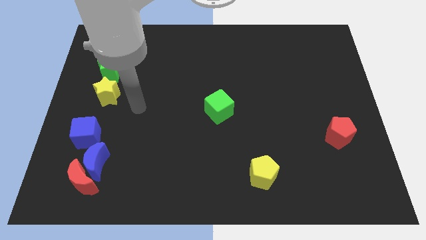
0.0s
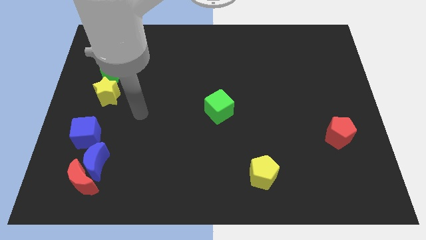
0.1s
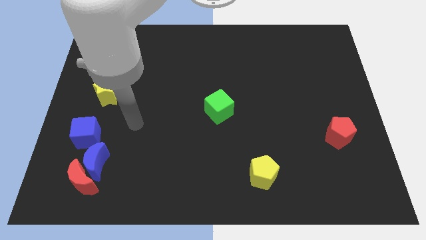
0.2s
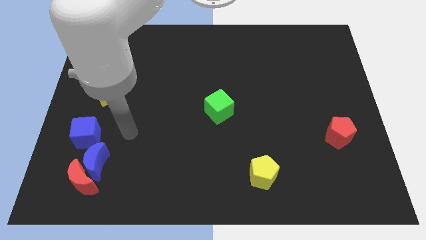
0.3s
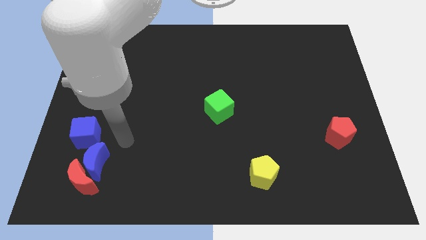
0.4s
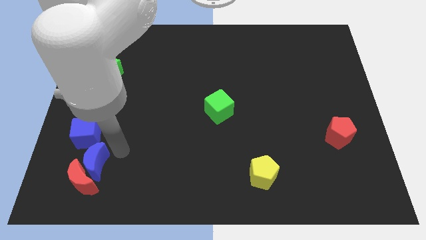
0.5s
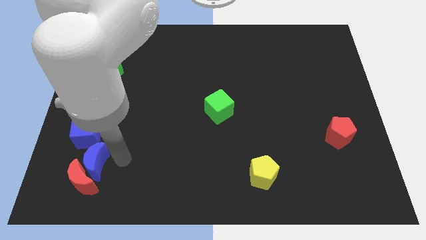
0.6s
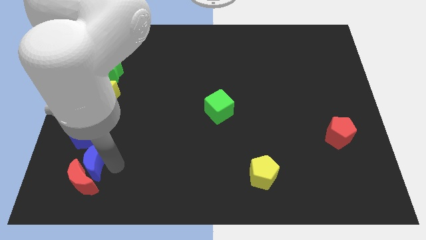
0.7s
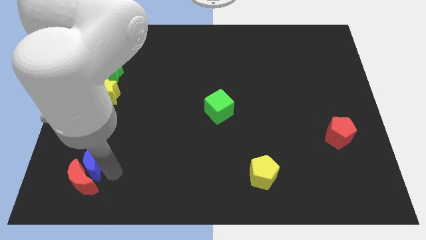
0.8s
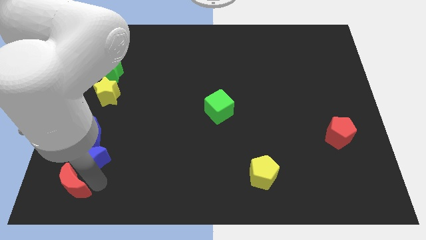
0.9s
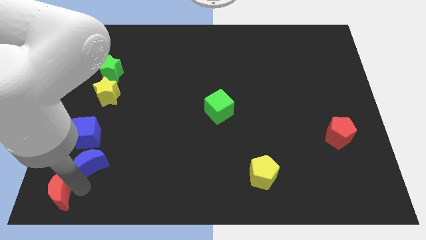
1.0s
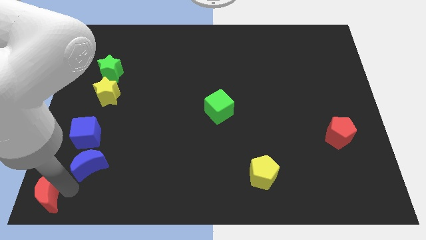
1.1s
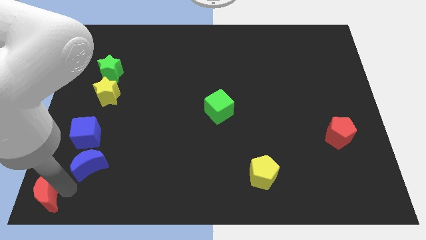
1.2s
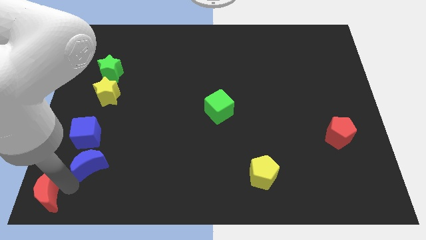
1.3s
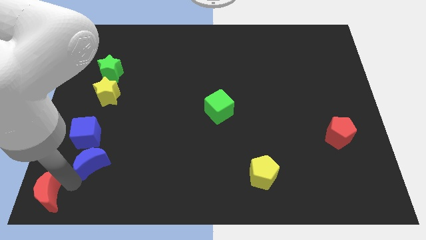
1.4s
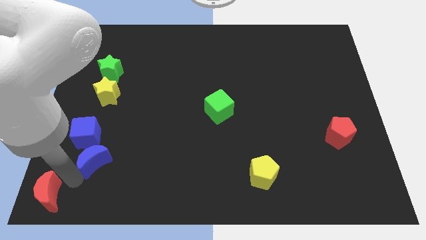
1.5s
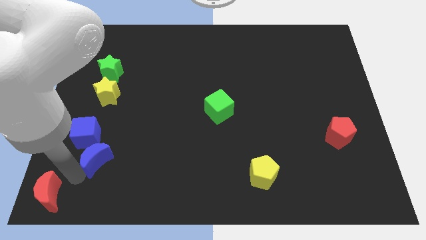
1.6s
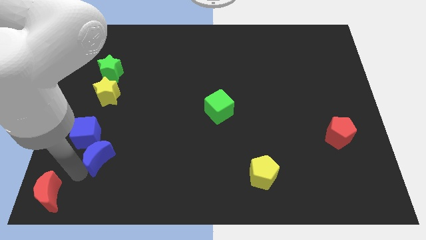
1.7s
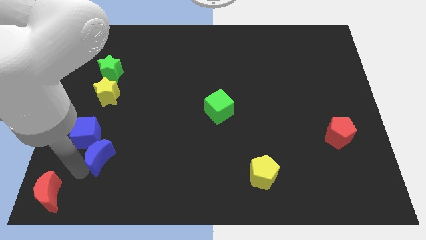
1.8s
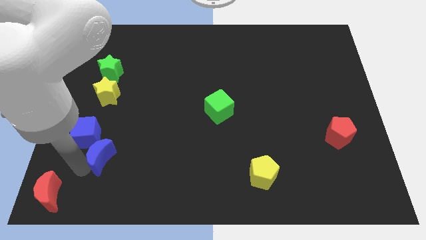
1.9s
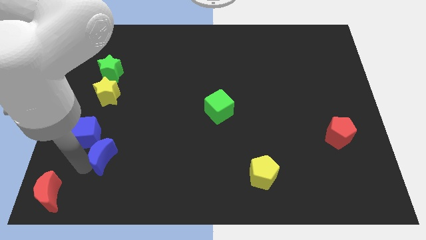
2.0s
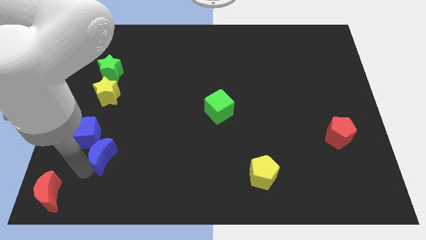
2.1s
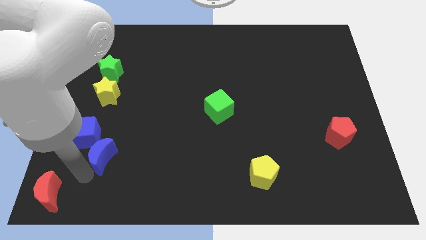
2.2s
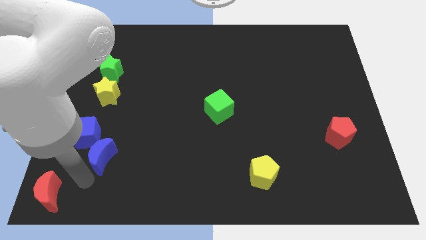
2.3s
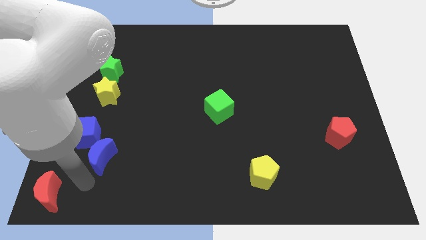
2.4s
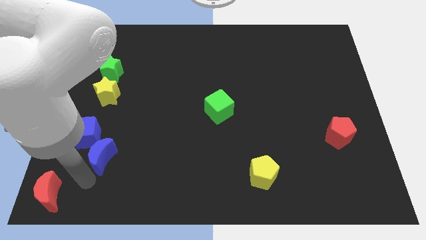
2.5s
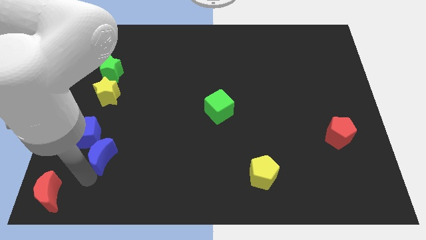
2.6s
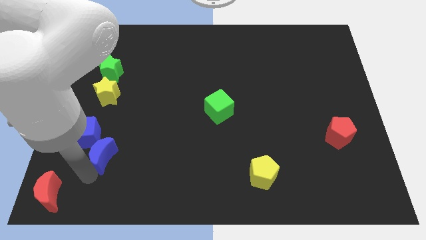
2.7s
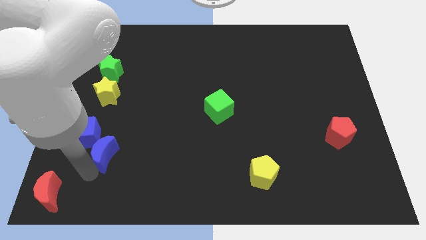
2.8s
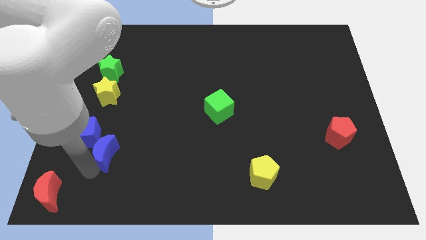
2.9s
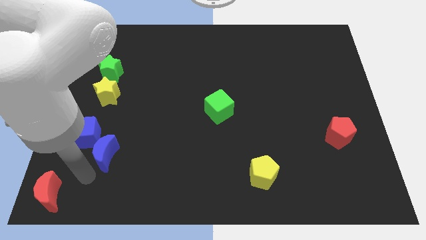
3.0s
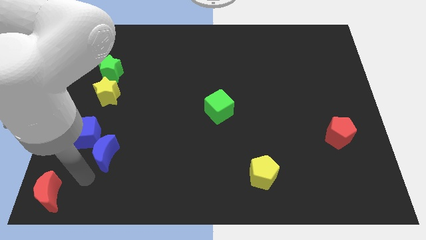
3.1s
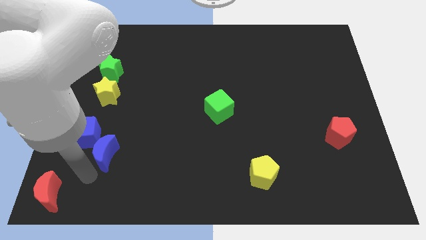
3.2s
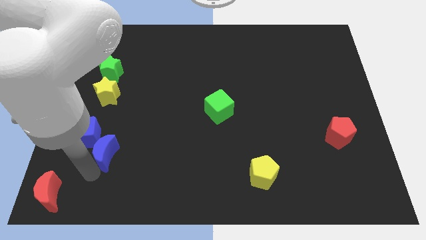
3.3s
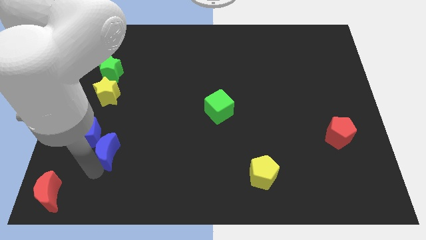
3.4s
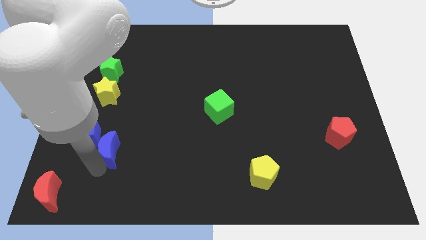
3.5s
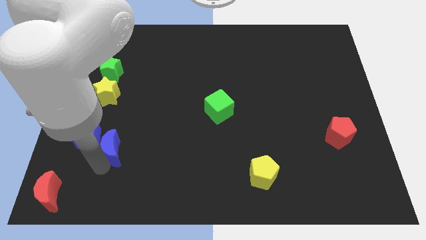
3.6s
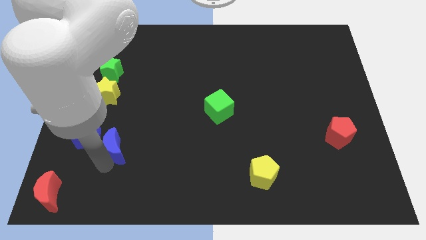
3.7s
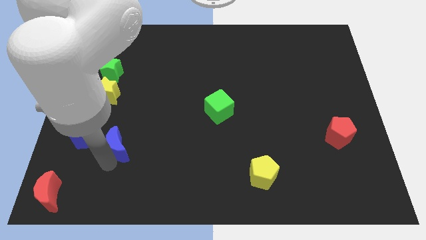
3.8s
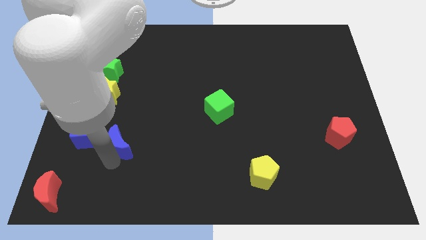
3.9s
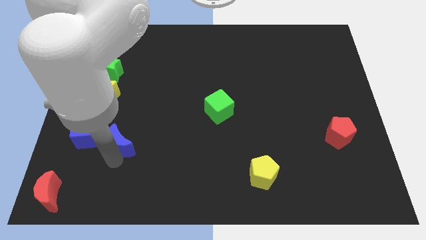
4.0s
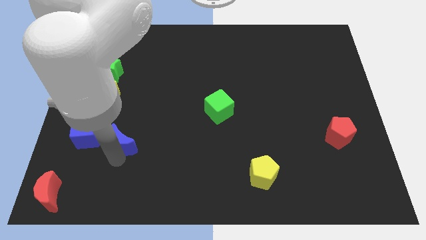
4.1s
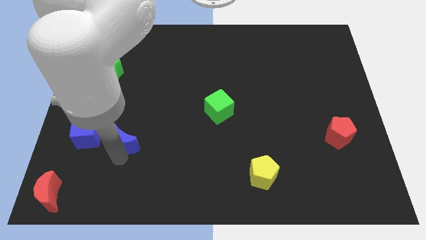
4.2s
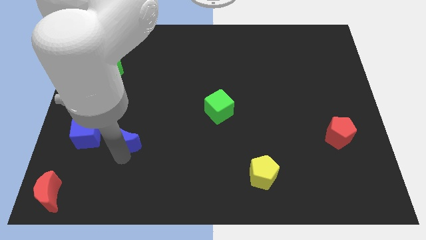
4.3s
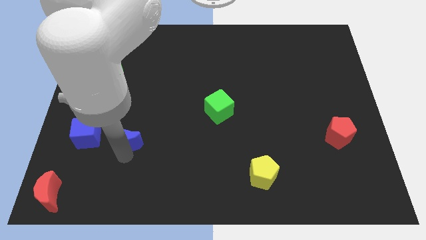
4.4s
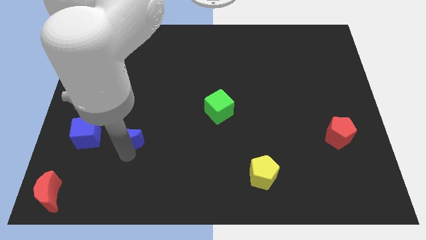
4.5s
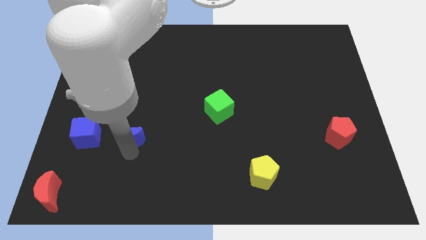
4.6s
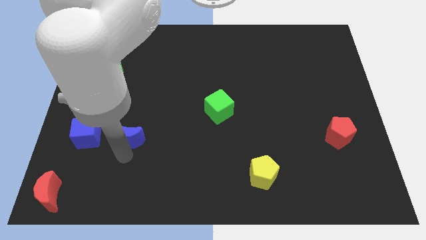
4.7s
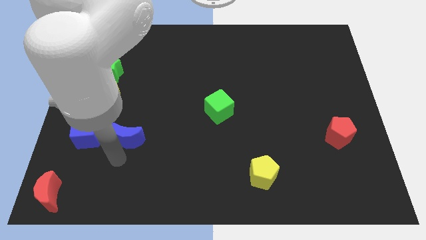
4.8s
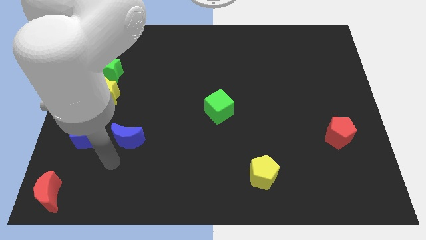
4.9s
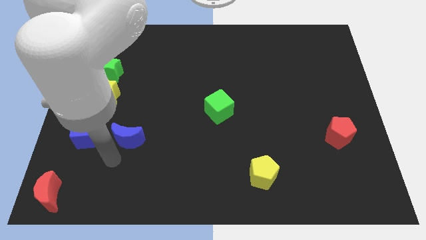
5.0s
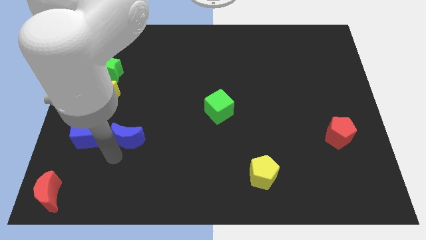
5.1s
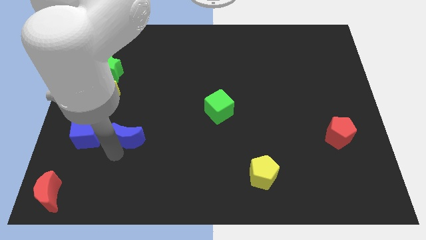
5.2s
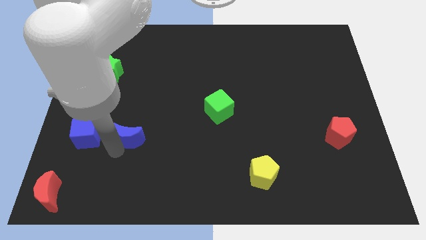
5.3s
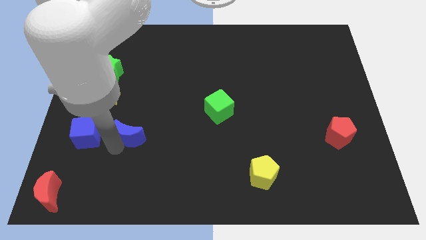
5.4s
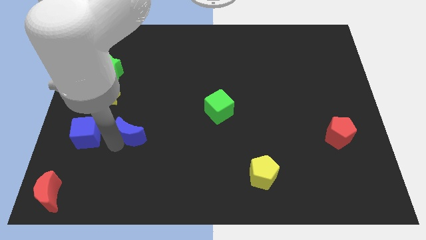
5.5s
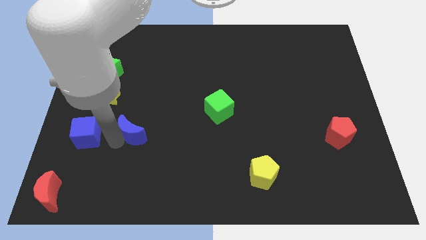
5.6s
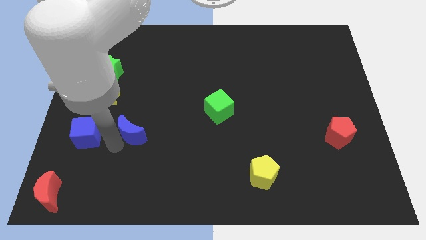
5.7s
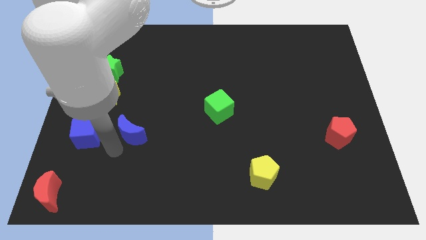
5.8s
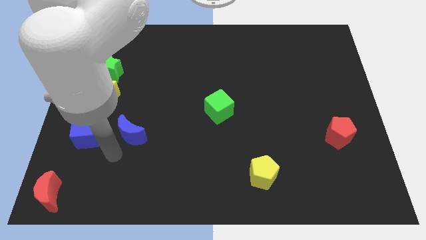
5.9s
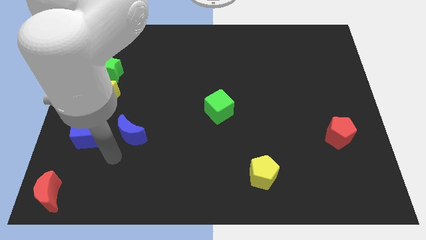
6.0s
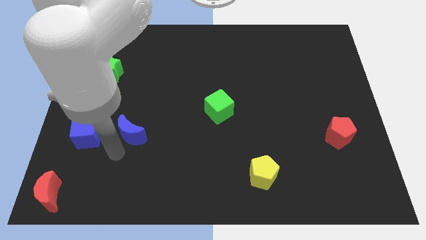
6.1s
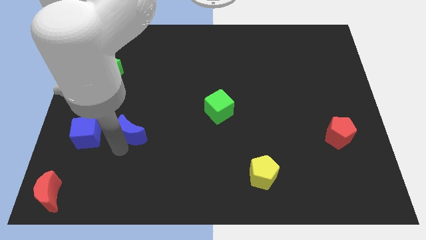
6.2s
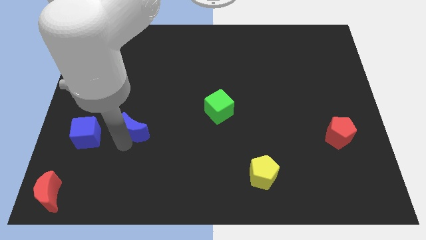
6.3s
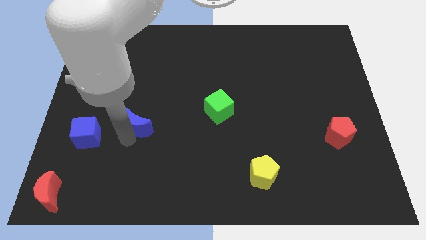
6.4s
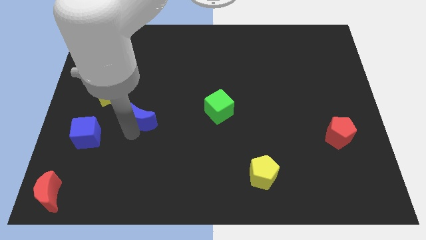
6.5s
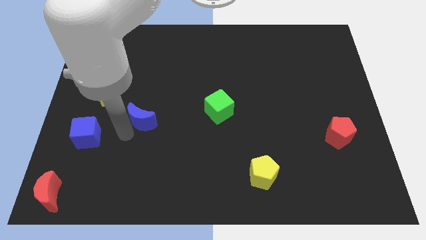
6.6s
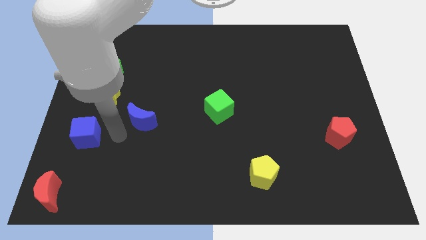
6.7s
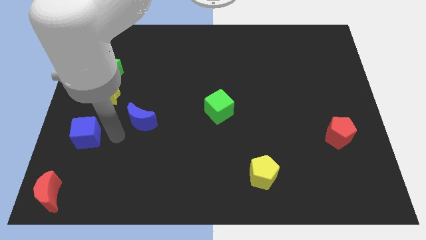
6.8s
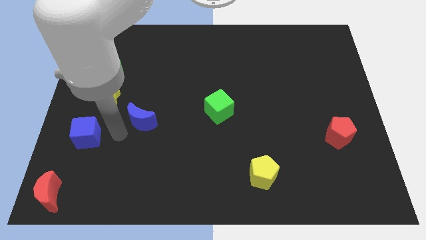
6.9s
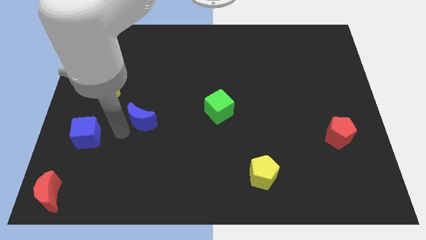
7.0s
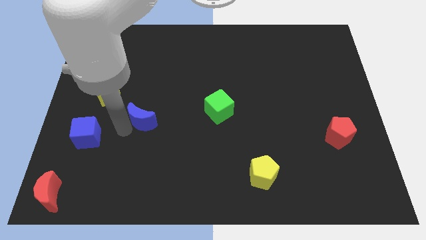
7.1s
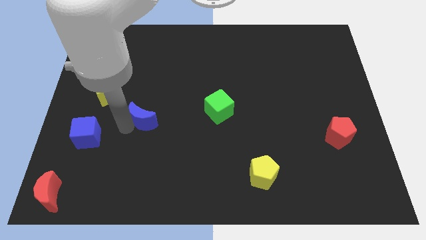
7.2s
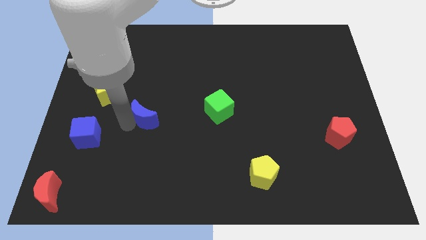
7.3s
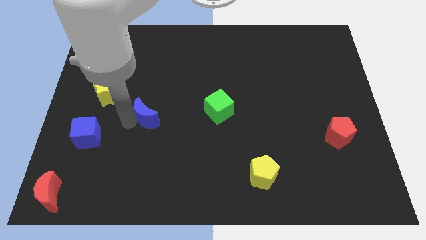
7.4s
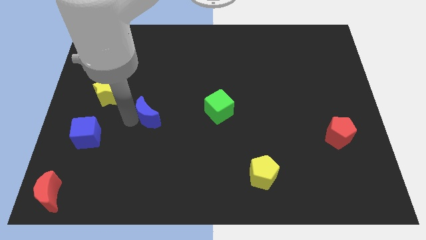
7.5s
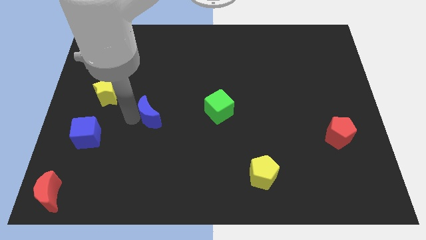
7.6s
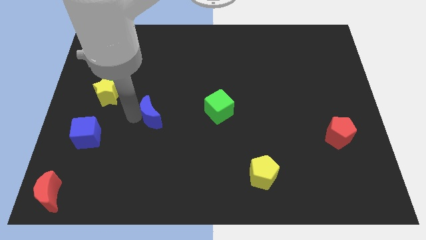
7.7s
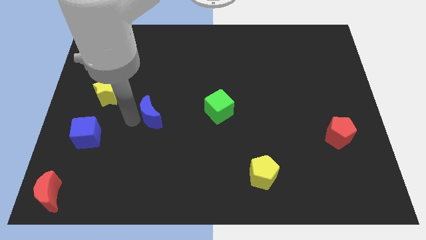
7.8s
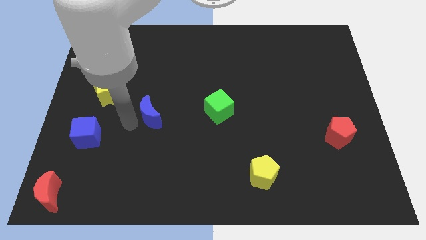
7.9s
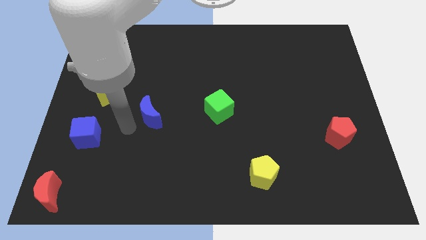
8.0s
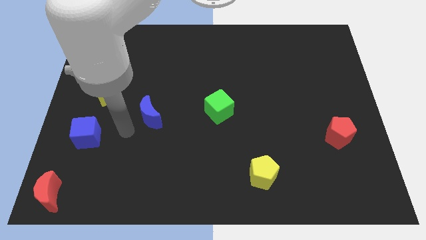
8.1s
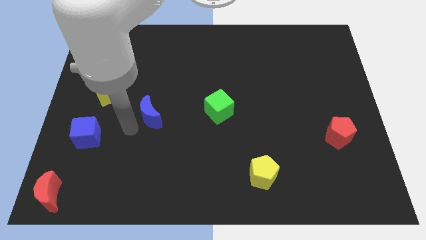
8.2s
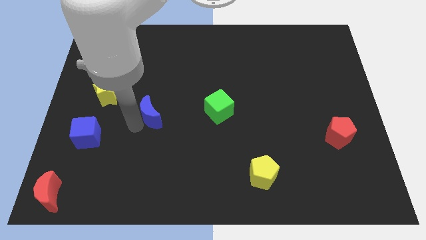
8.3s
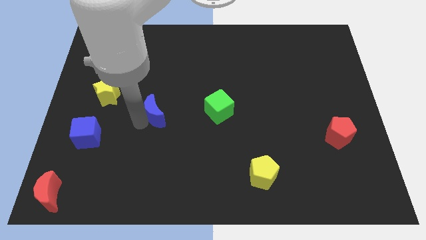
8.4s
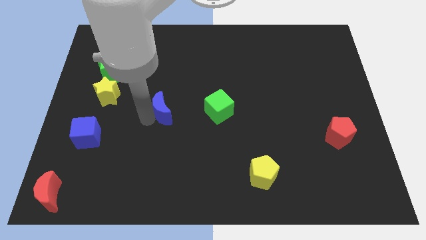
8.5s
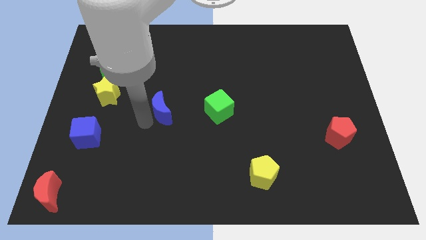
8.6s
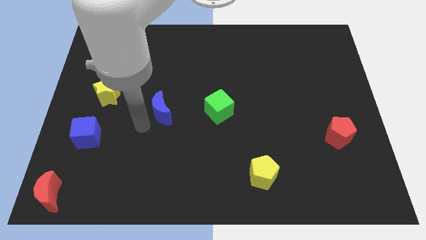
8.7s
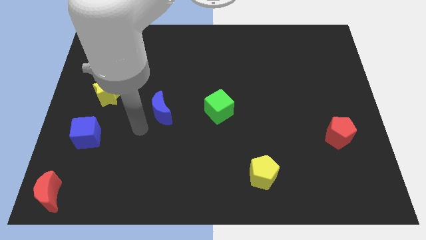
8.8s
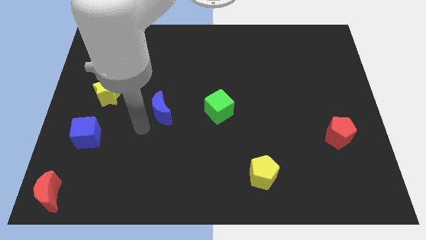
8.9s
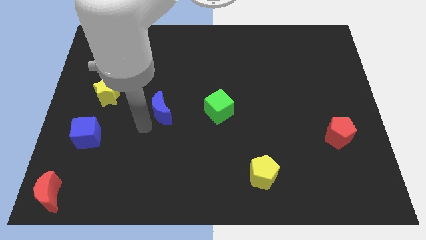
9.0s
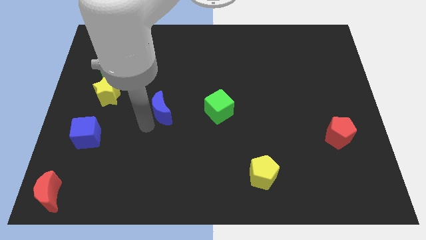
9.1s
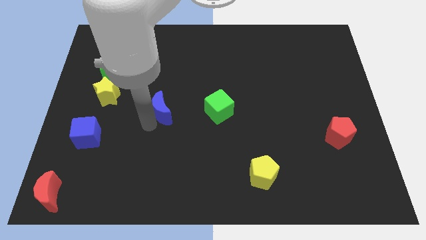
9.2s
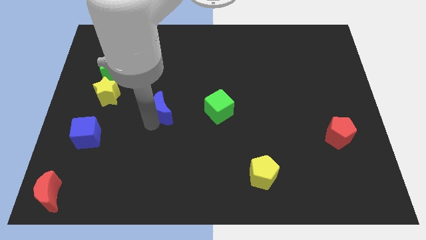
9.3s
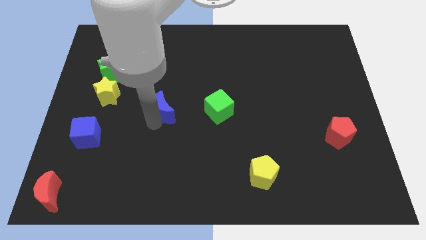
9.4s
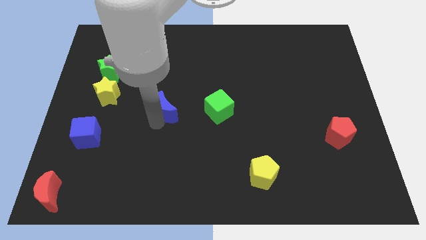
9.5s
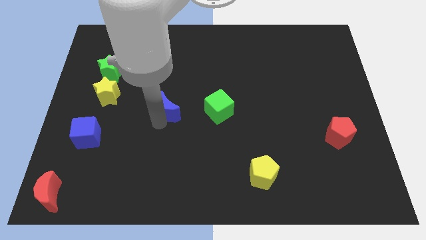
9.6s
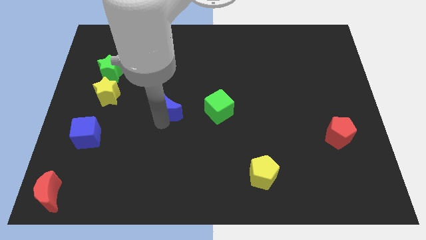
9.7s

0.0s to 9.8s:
push the blue moon diagonally up and to the right
